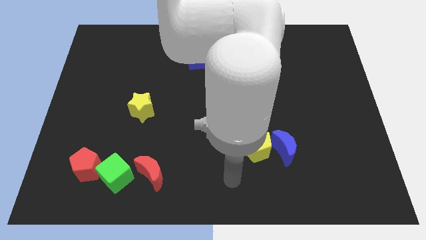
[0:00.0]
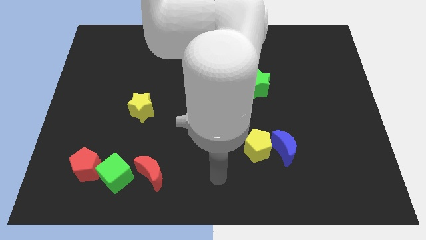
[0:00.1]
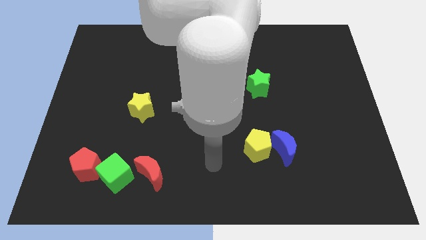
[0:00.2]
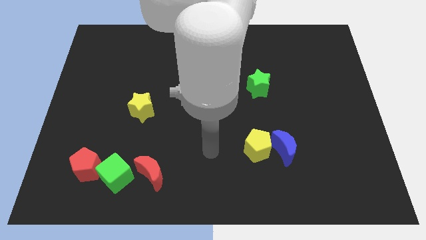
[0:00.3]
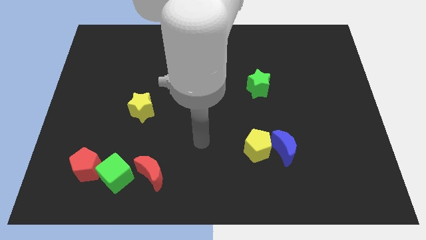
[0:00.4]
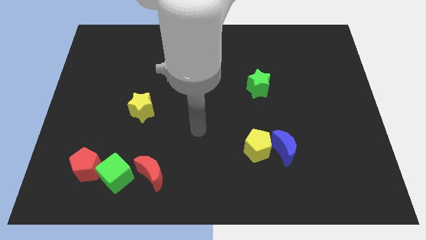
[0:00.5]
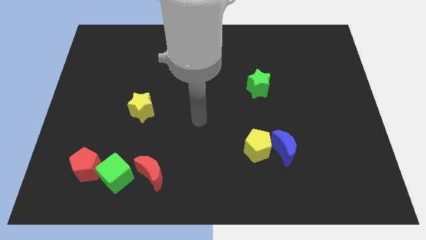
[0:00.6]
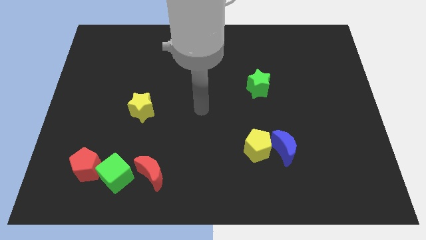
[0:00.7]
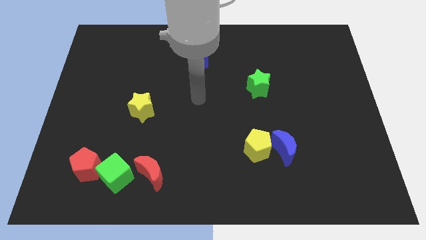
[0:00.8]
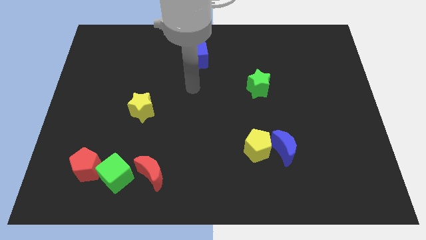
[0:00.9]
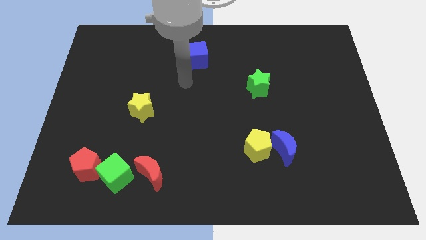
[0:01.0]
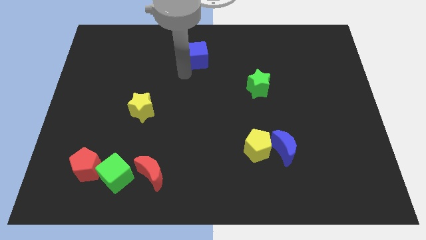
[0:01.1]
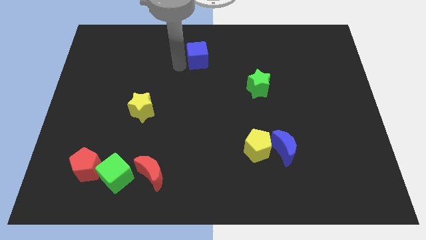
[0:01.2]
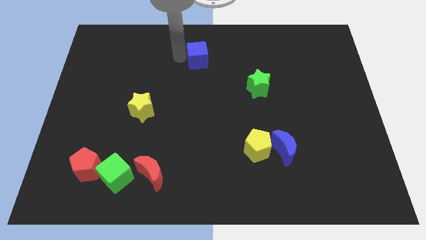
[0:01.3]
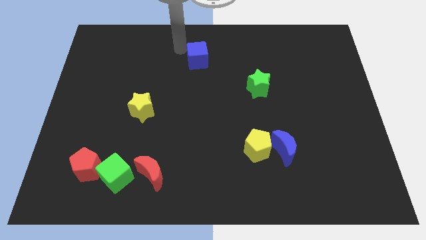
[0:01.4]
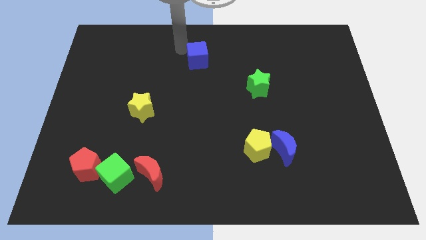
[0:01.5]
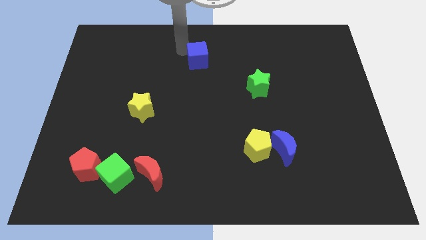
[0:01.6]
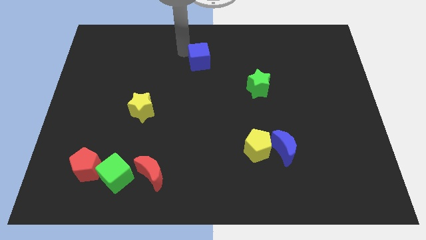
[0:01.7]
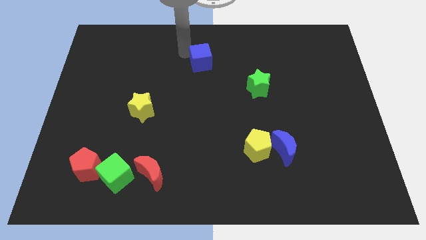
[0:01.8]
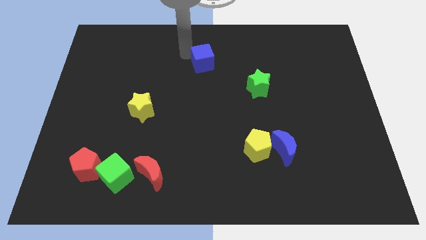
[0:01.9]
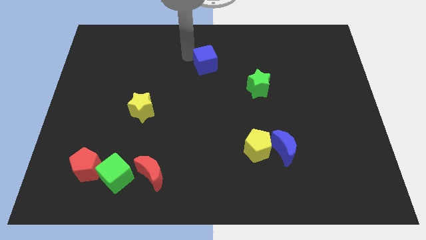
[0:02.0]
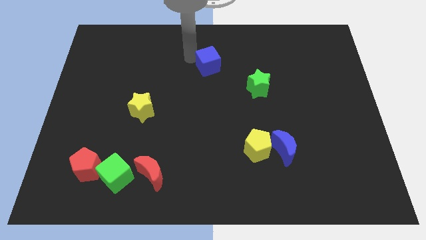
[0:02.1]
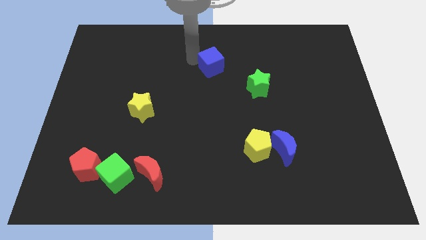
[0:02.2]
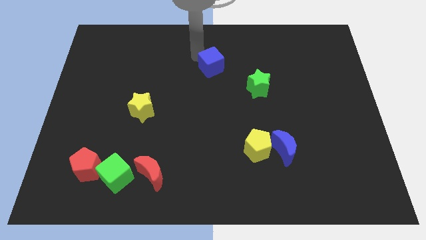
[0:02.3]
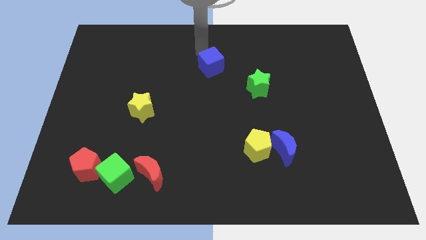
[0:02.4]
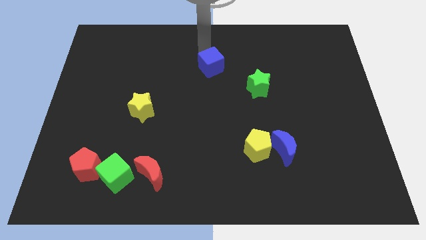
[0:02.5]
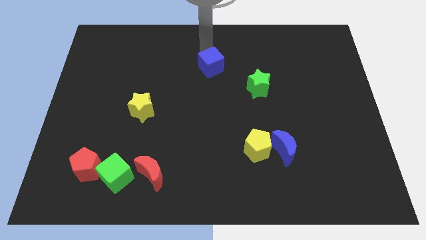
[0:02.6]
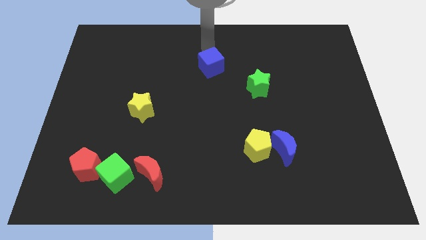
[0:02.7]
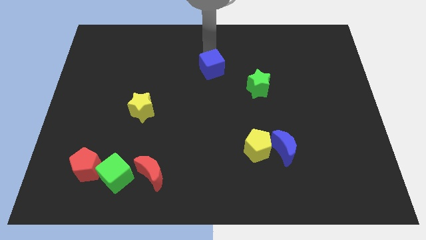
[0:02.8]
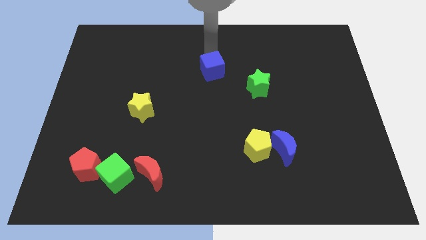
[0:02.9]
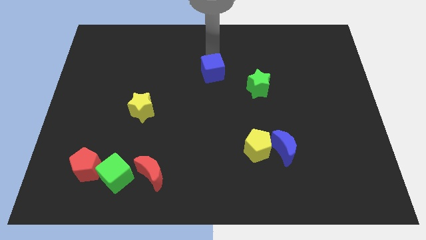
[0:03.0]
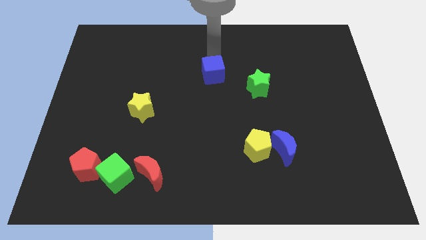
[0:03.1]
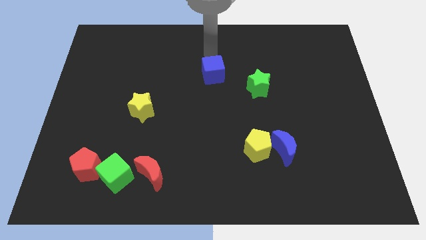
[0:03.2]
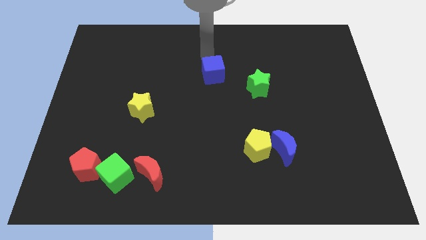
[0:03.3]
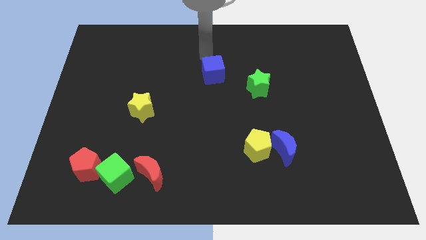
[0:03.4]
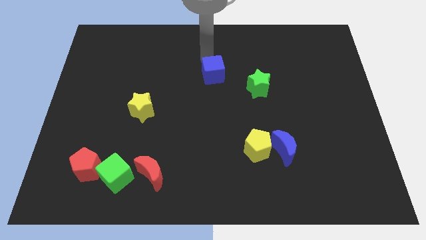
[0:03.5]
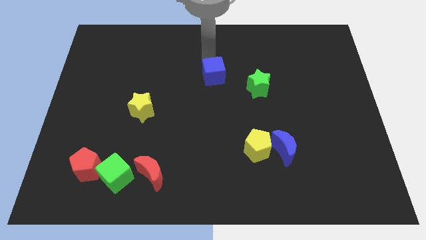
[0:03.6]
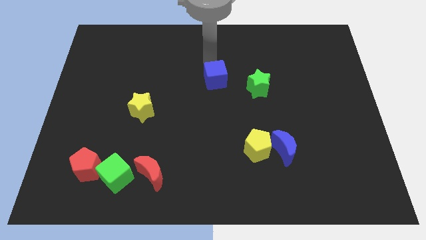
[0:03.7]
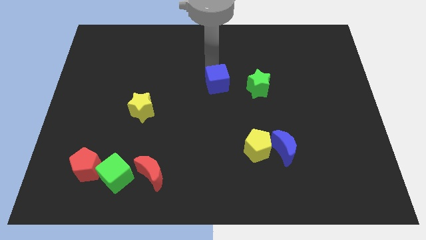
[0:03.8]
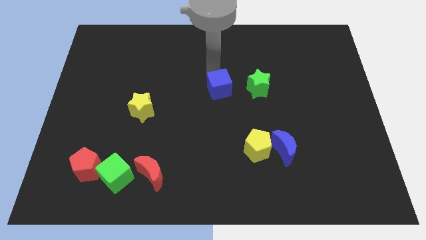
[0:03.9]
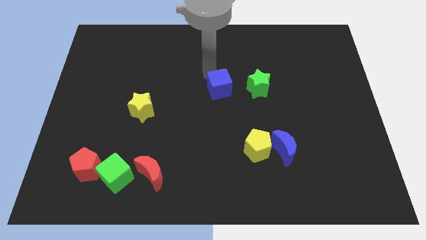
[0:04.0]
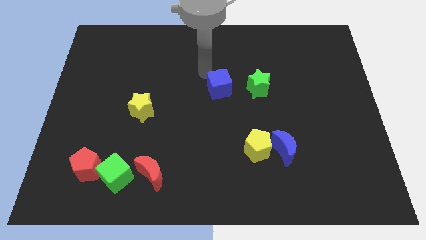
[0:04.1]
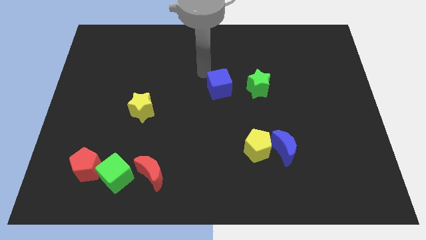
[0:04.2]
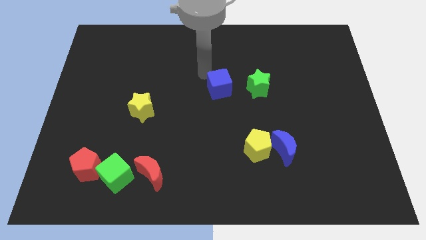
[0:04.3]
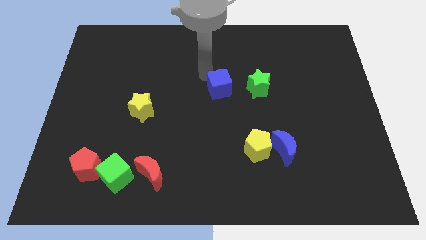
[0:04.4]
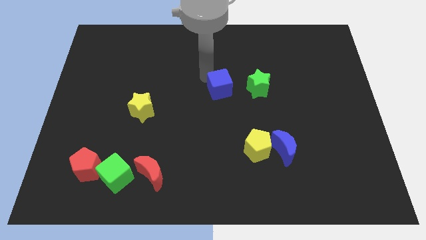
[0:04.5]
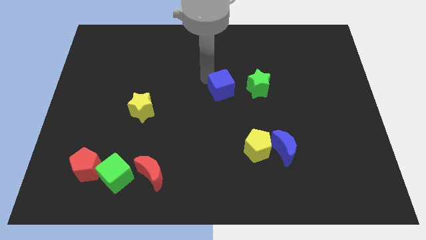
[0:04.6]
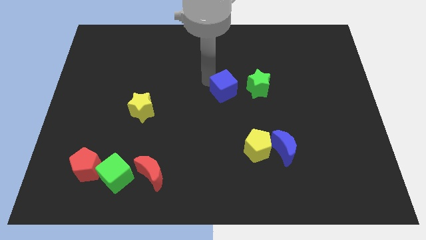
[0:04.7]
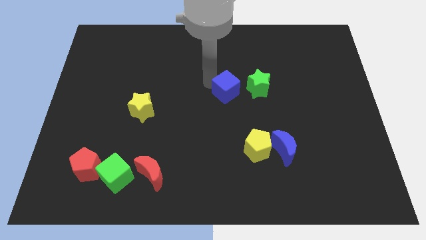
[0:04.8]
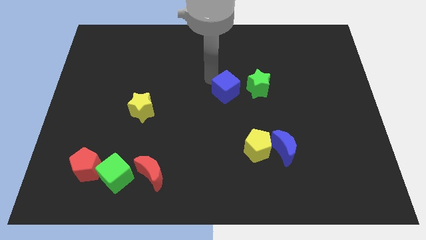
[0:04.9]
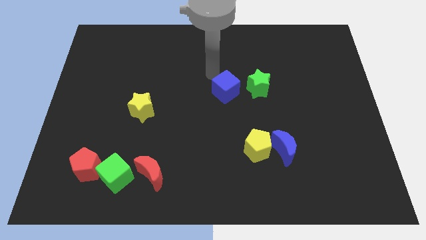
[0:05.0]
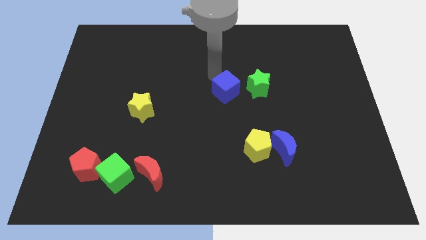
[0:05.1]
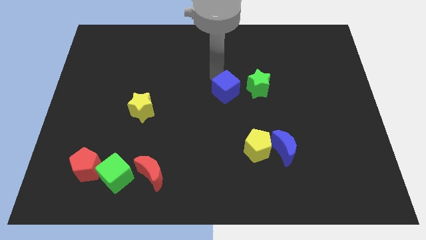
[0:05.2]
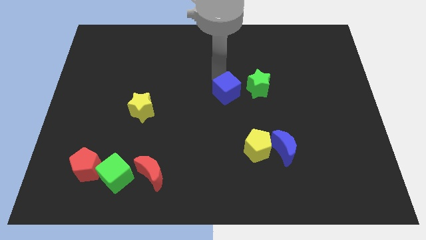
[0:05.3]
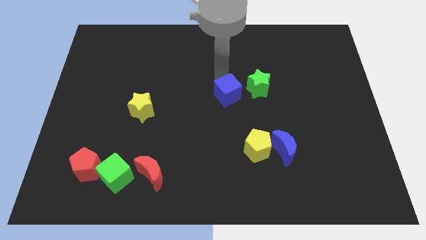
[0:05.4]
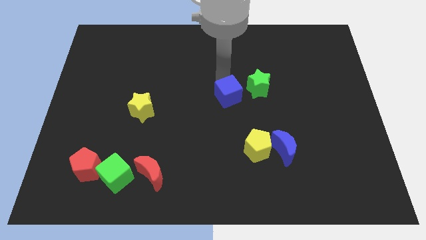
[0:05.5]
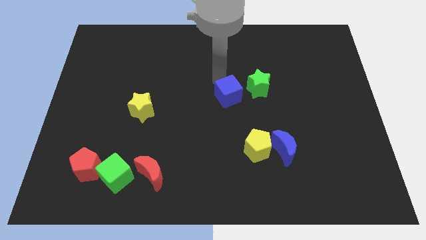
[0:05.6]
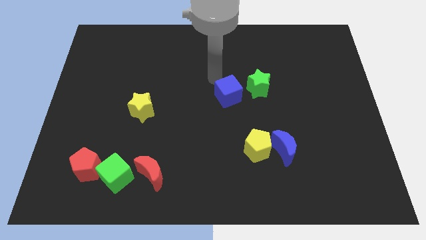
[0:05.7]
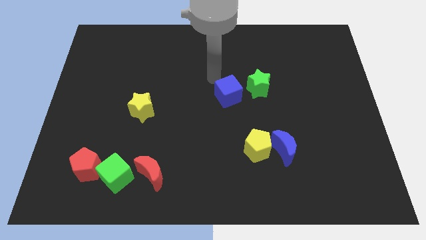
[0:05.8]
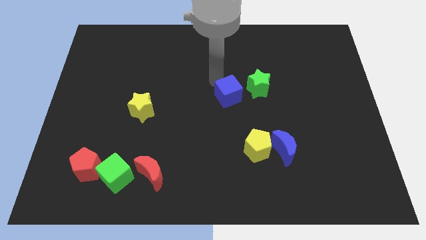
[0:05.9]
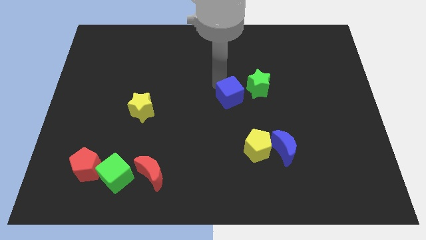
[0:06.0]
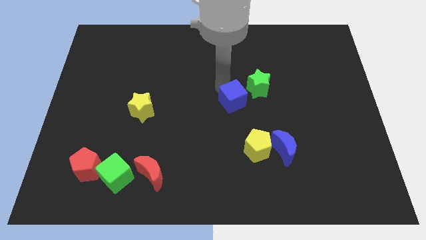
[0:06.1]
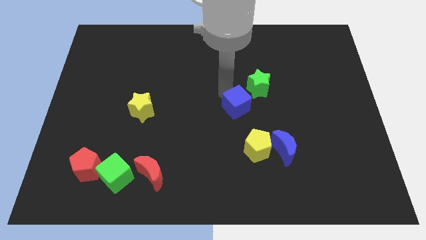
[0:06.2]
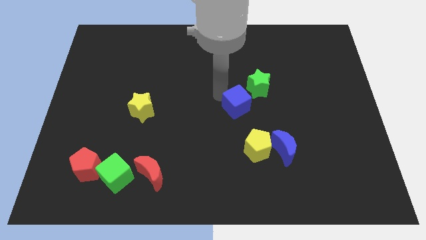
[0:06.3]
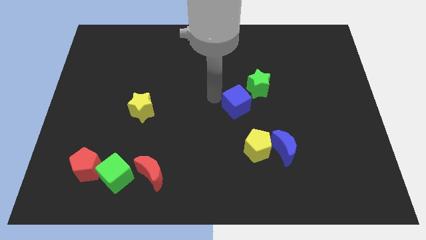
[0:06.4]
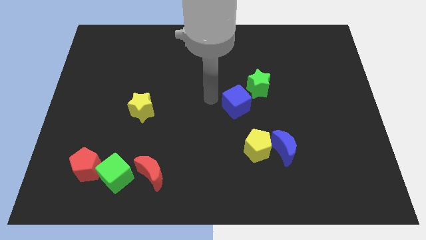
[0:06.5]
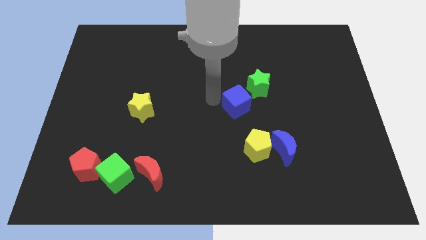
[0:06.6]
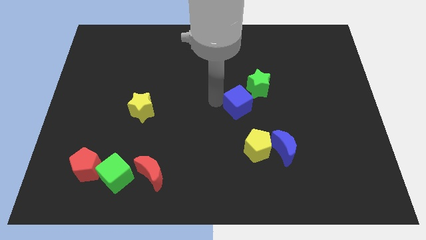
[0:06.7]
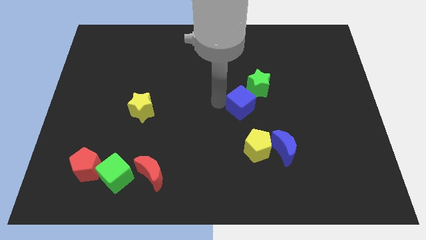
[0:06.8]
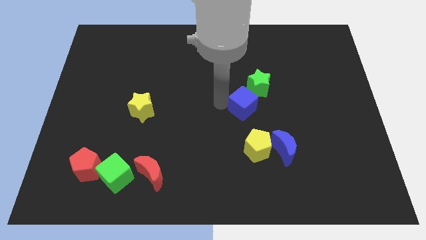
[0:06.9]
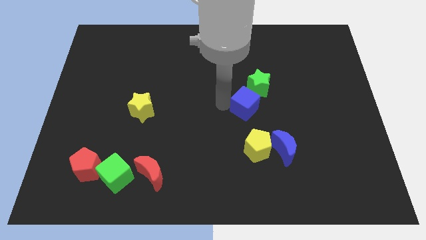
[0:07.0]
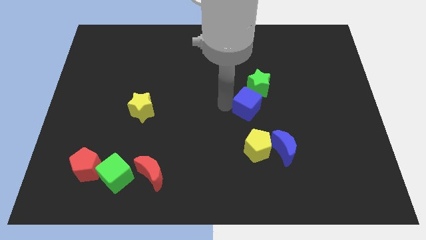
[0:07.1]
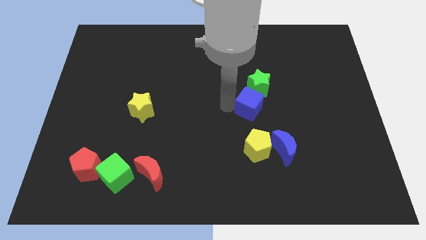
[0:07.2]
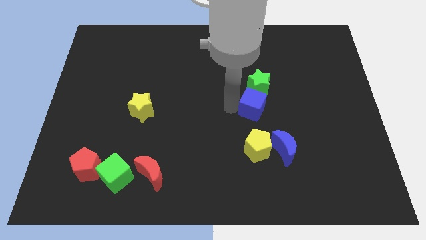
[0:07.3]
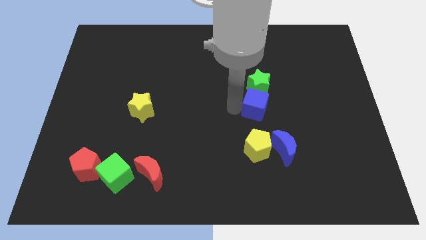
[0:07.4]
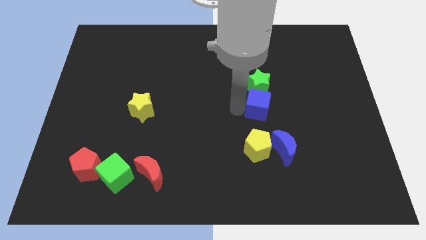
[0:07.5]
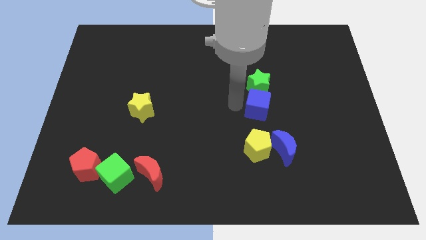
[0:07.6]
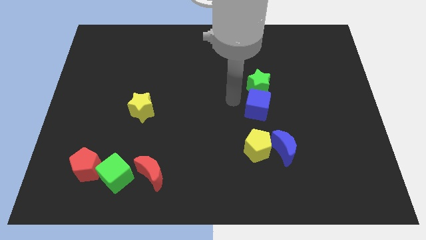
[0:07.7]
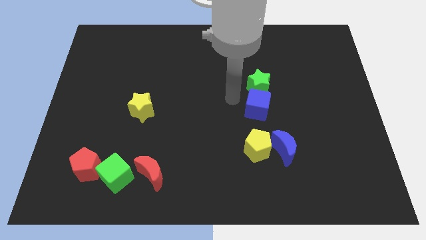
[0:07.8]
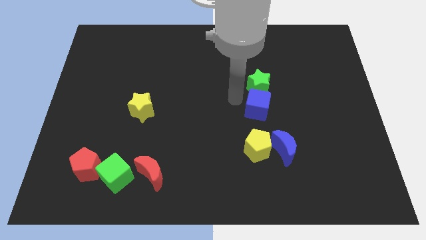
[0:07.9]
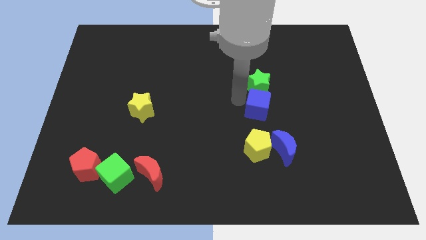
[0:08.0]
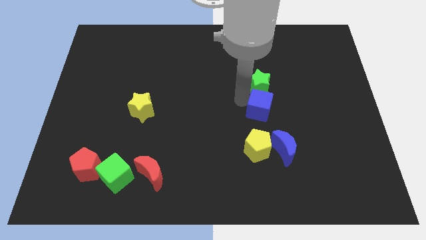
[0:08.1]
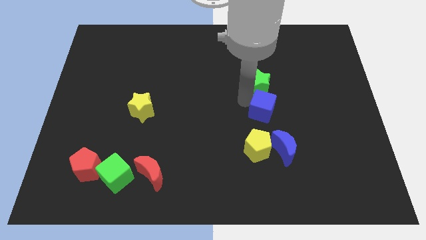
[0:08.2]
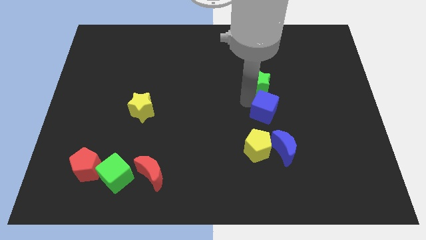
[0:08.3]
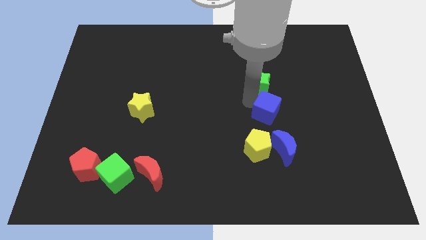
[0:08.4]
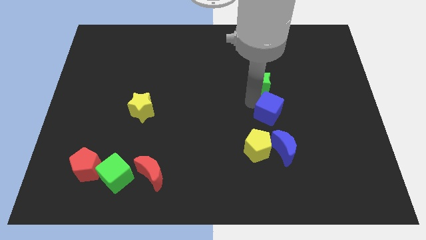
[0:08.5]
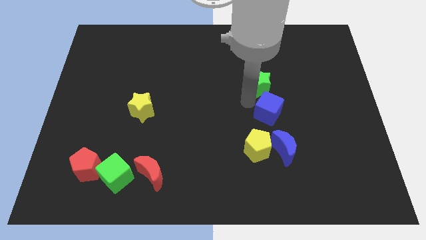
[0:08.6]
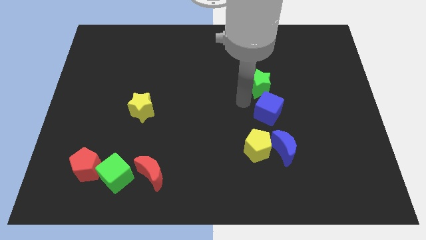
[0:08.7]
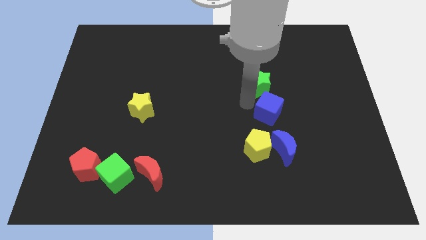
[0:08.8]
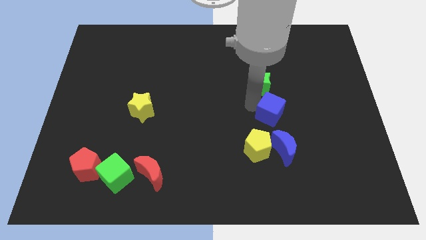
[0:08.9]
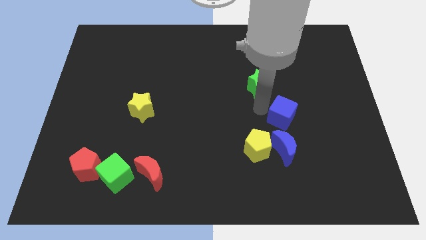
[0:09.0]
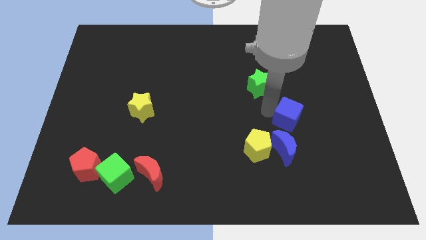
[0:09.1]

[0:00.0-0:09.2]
move the blue cube to the top right side of the blue moon
